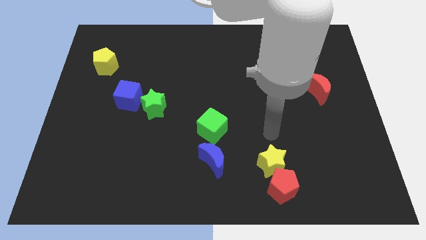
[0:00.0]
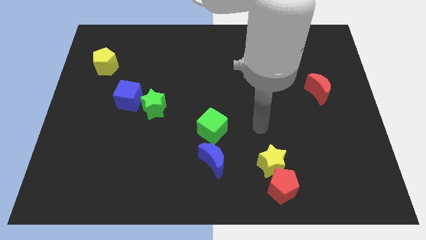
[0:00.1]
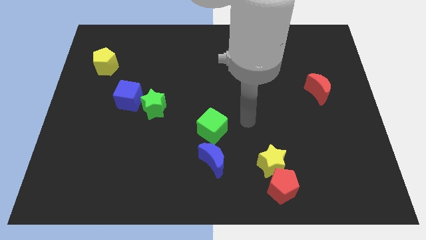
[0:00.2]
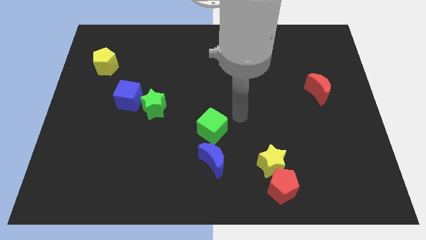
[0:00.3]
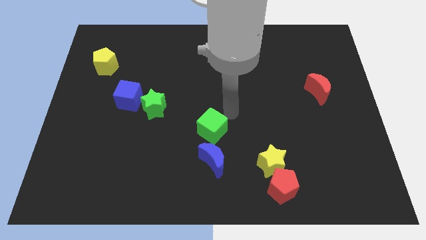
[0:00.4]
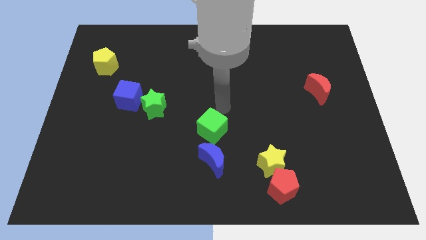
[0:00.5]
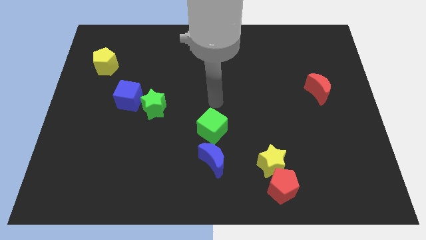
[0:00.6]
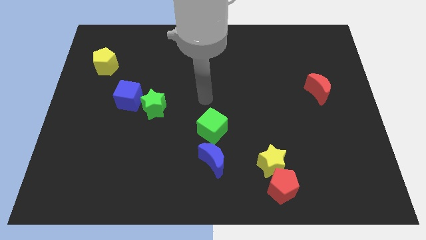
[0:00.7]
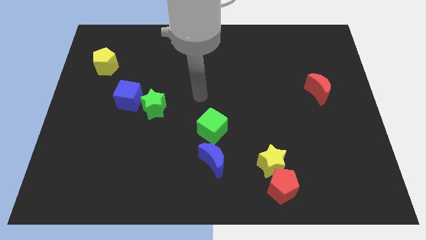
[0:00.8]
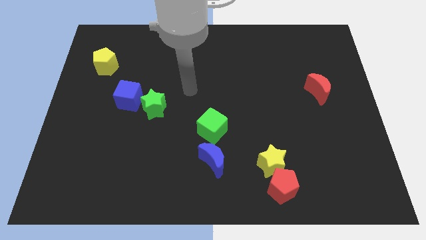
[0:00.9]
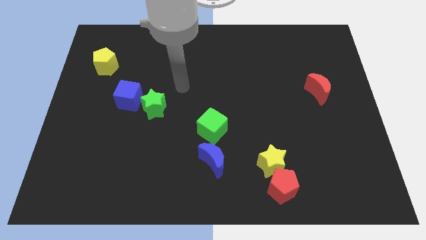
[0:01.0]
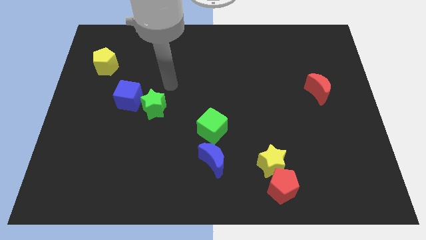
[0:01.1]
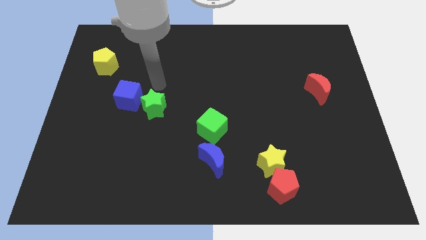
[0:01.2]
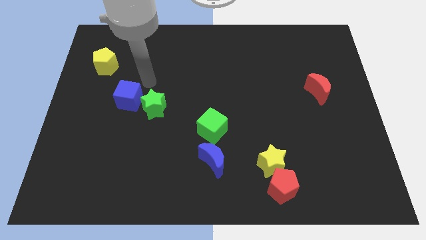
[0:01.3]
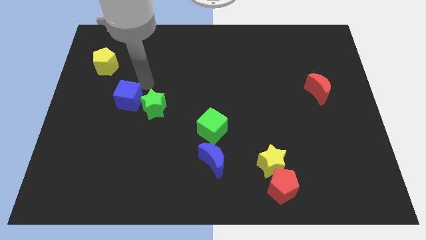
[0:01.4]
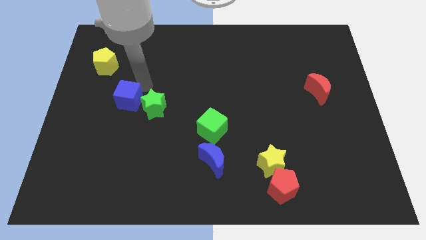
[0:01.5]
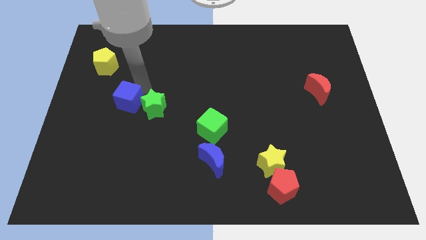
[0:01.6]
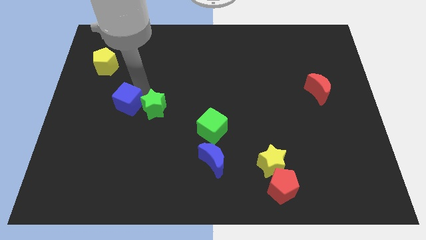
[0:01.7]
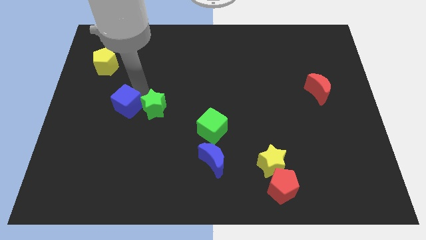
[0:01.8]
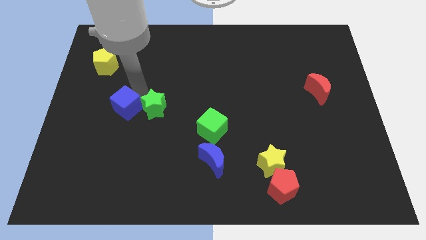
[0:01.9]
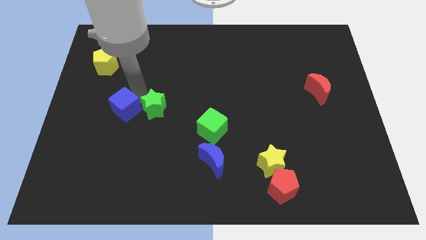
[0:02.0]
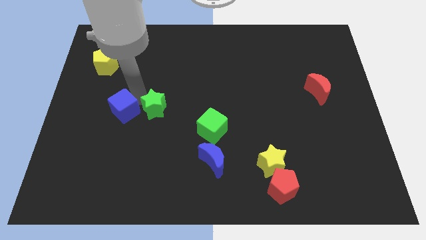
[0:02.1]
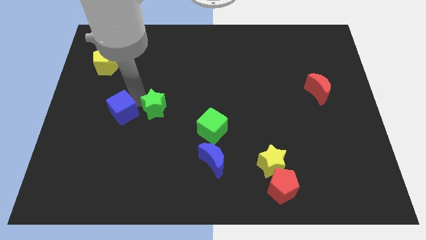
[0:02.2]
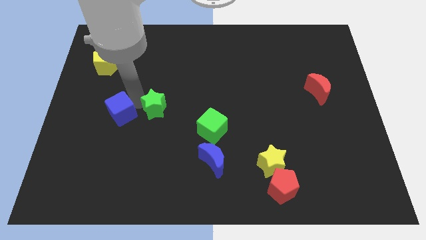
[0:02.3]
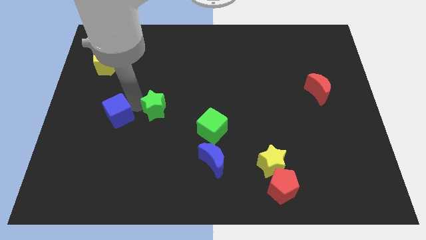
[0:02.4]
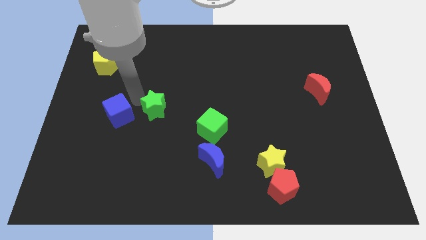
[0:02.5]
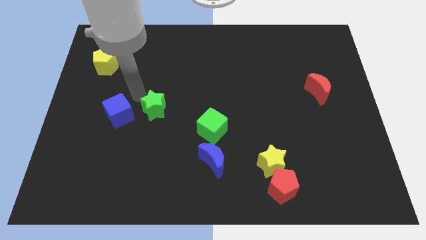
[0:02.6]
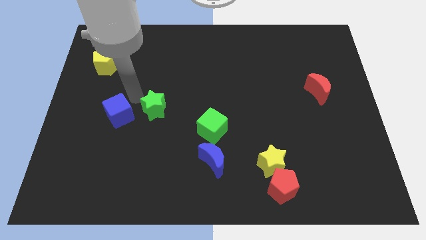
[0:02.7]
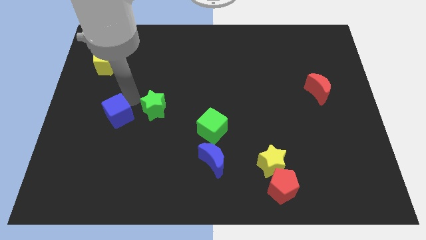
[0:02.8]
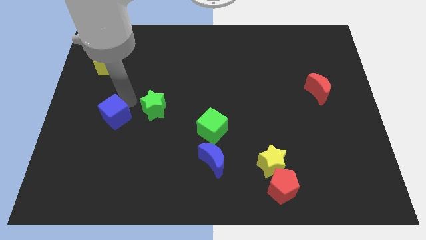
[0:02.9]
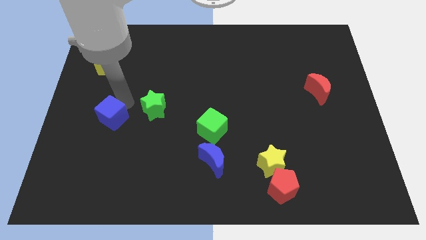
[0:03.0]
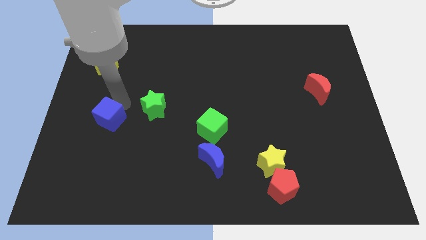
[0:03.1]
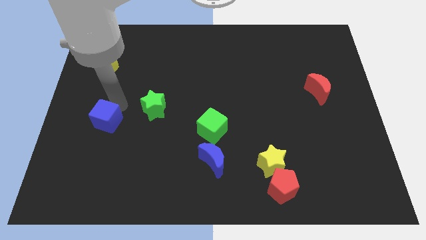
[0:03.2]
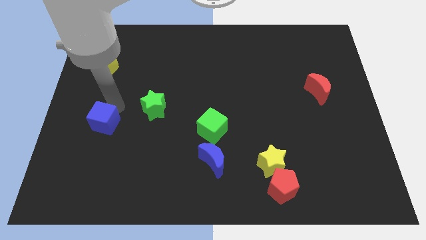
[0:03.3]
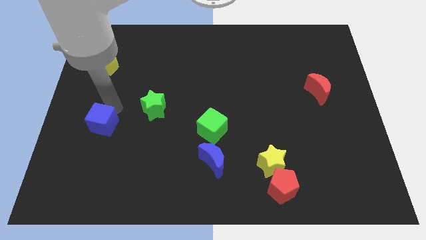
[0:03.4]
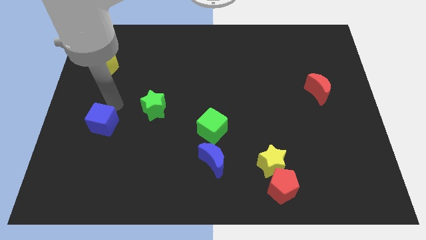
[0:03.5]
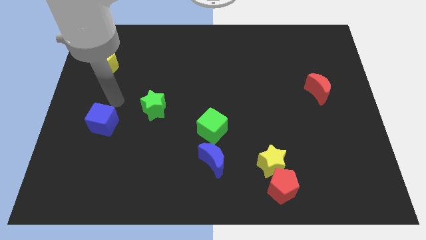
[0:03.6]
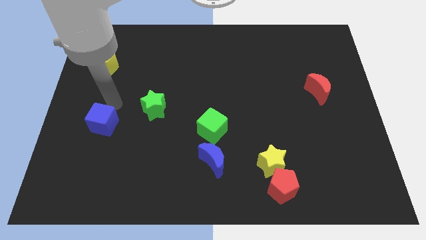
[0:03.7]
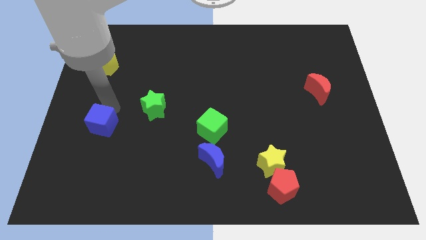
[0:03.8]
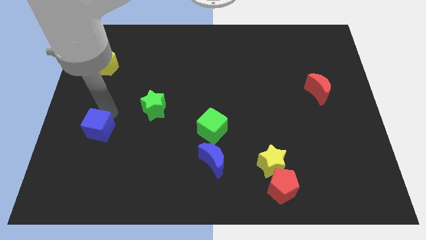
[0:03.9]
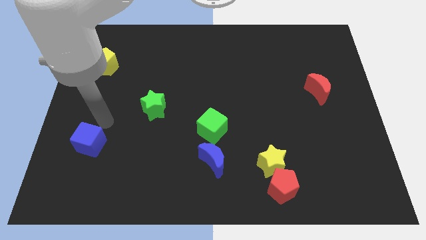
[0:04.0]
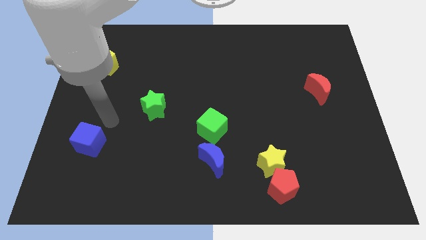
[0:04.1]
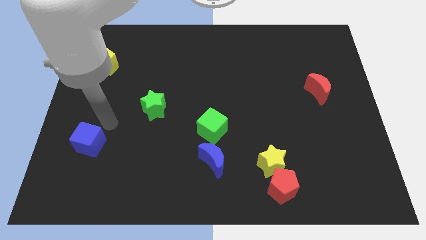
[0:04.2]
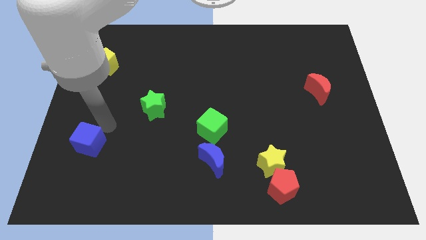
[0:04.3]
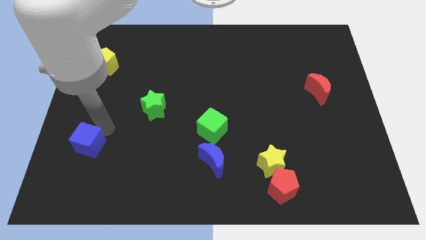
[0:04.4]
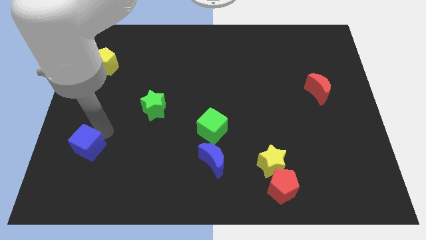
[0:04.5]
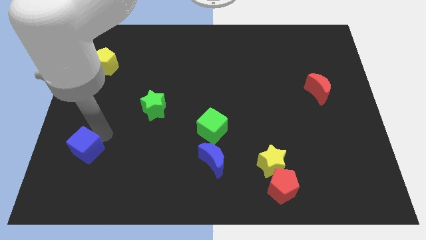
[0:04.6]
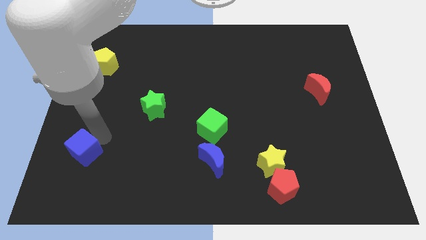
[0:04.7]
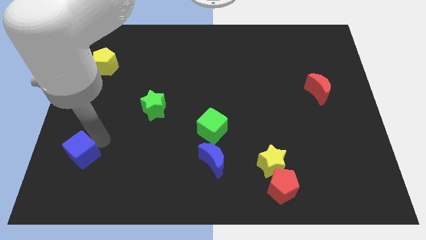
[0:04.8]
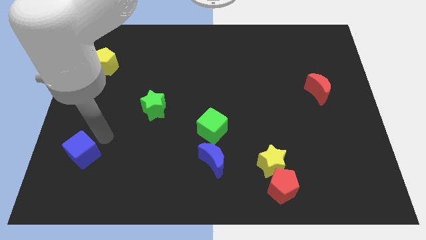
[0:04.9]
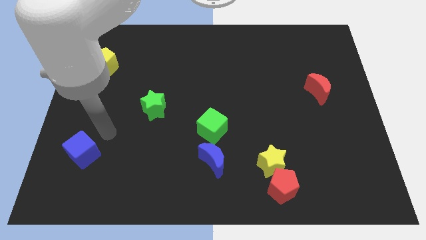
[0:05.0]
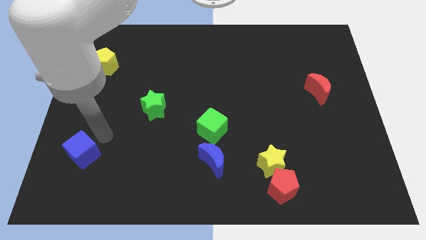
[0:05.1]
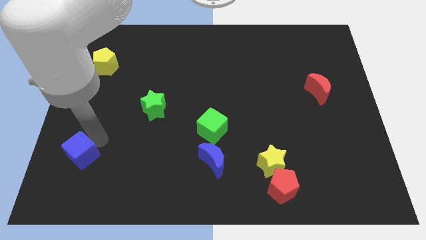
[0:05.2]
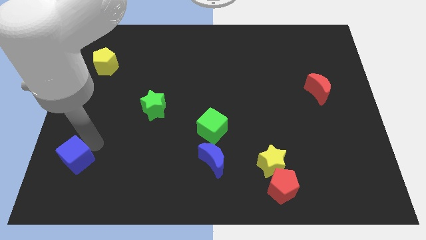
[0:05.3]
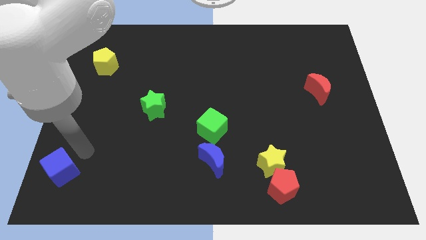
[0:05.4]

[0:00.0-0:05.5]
push the blue cube to the bottom left corner

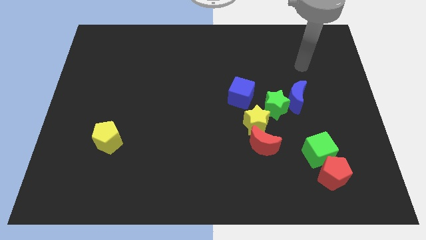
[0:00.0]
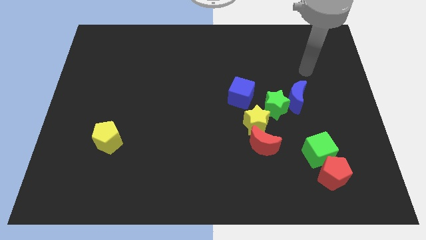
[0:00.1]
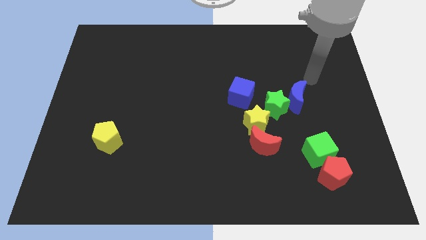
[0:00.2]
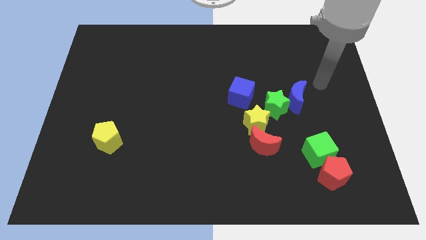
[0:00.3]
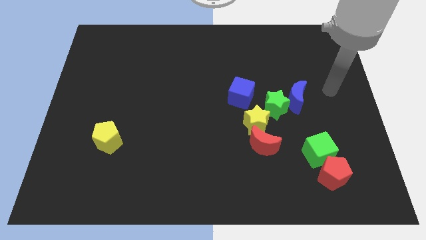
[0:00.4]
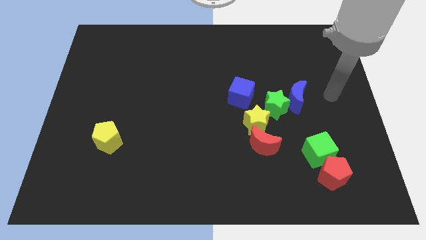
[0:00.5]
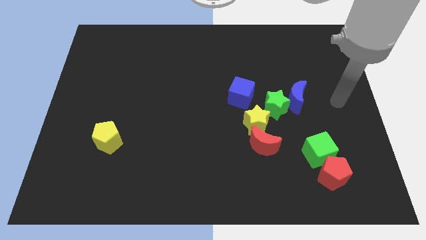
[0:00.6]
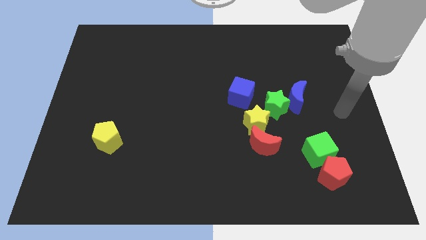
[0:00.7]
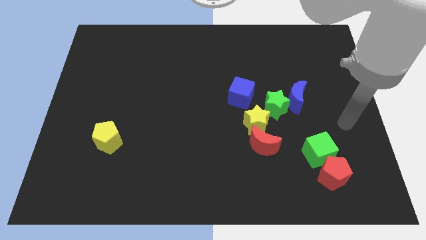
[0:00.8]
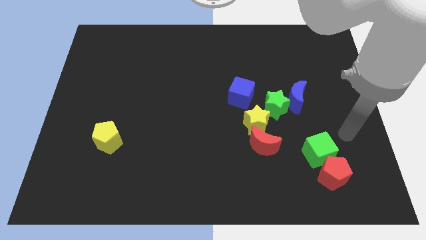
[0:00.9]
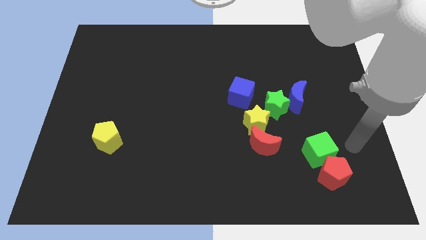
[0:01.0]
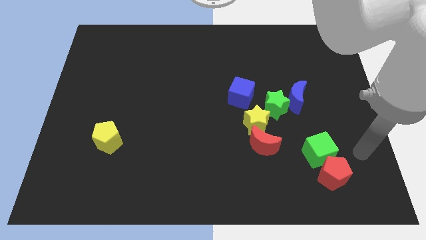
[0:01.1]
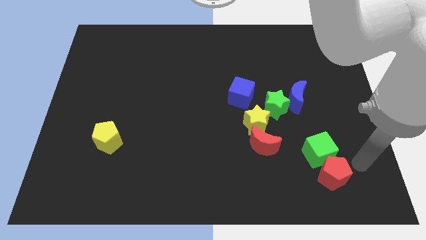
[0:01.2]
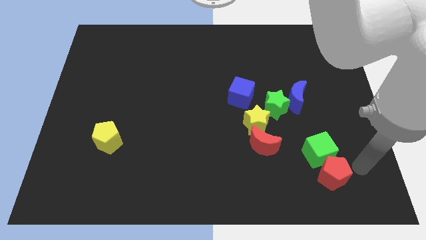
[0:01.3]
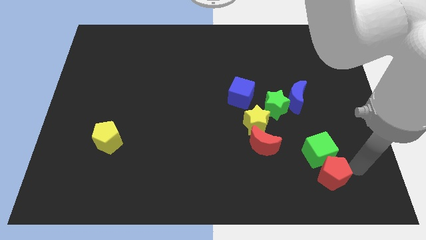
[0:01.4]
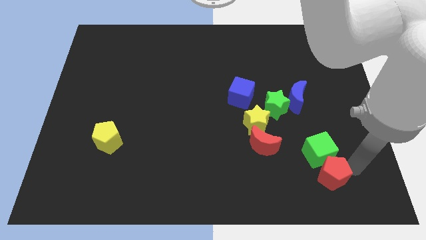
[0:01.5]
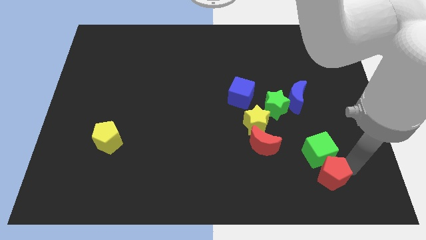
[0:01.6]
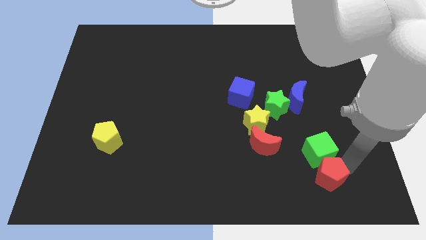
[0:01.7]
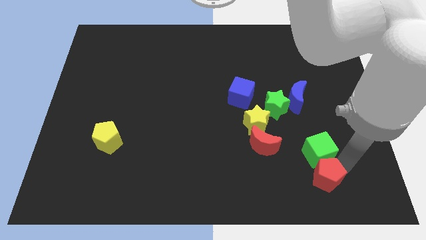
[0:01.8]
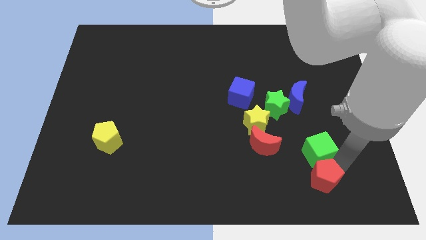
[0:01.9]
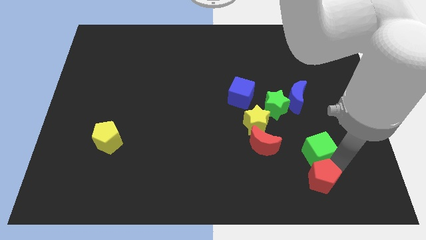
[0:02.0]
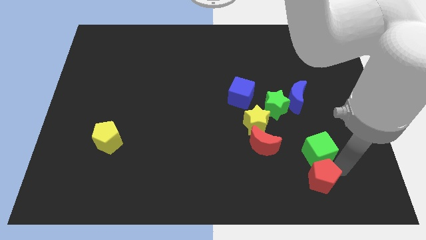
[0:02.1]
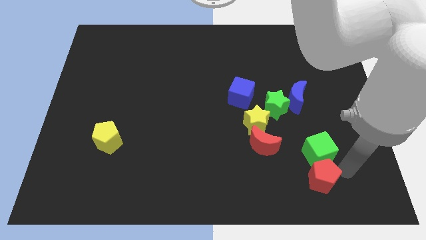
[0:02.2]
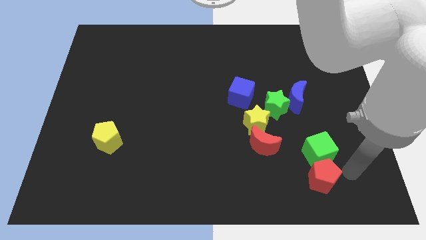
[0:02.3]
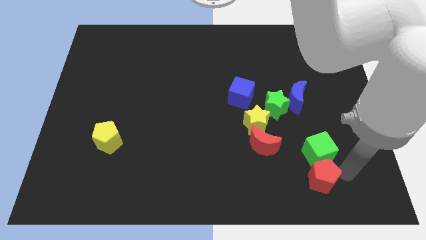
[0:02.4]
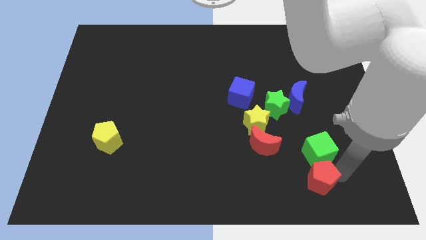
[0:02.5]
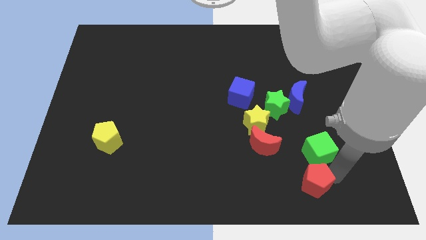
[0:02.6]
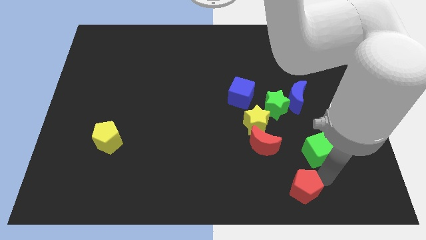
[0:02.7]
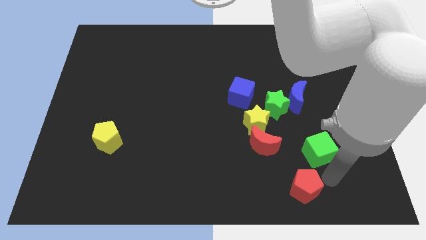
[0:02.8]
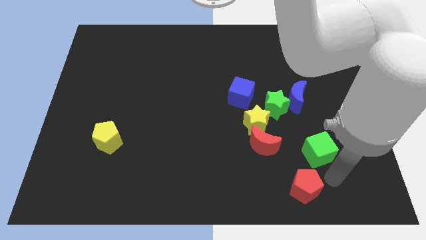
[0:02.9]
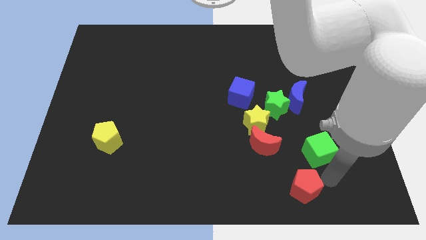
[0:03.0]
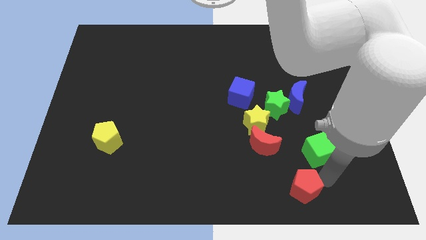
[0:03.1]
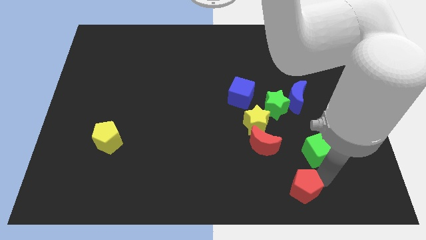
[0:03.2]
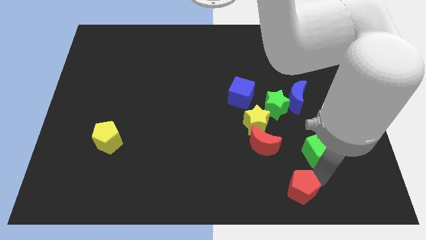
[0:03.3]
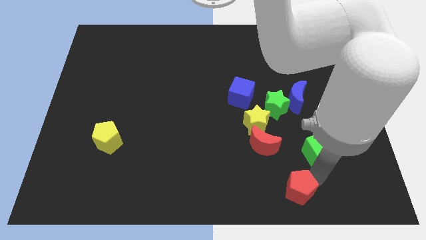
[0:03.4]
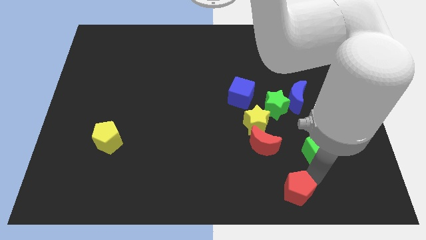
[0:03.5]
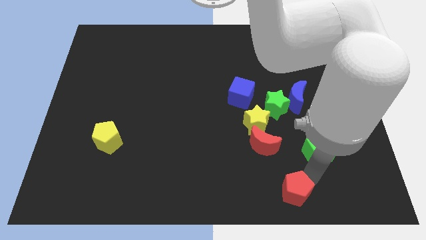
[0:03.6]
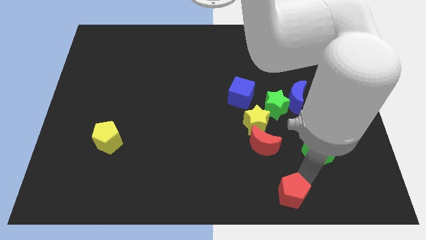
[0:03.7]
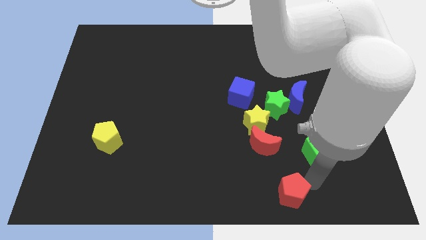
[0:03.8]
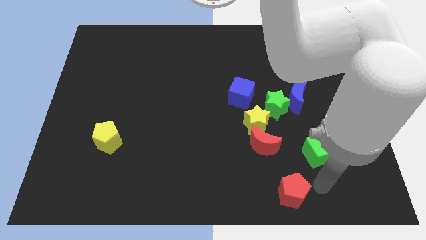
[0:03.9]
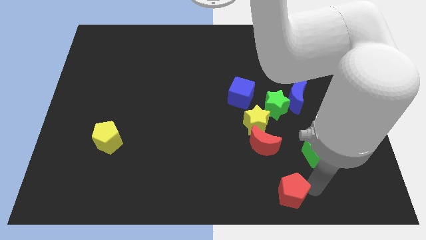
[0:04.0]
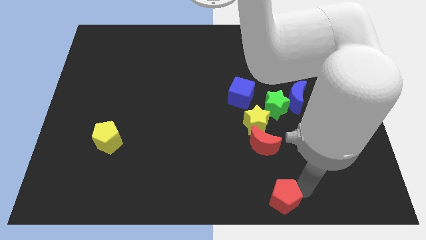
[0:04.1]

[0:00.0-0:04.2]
slide the red pentagon to the bottom side
